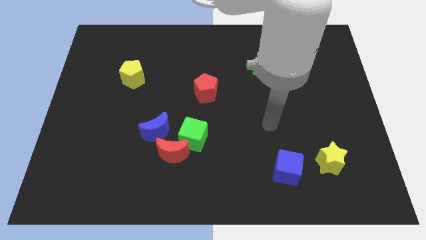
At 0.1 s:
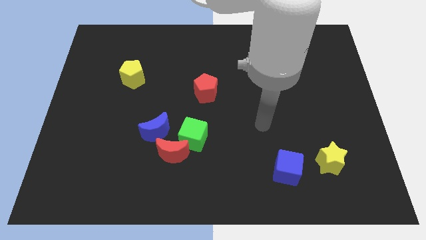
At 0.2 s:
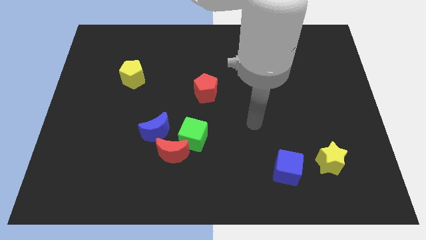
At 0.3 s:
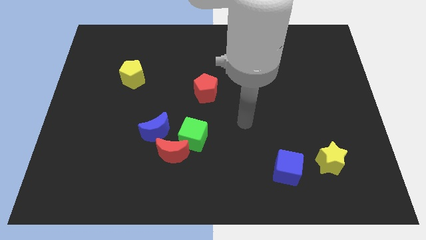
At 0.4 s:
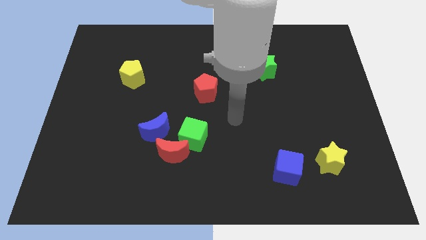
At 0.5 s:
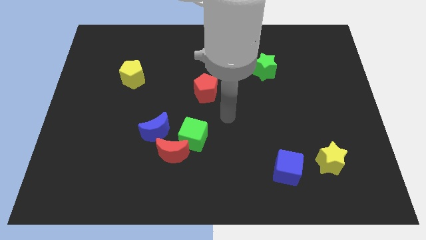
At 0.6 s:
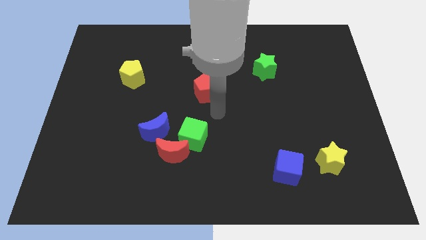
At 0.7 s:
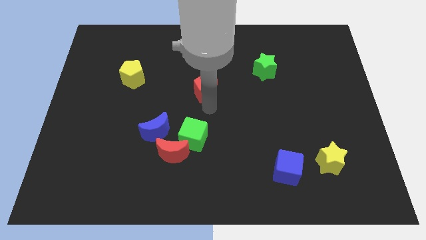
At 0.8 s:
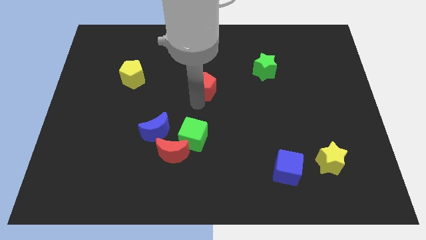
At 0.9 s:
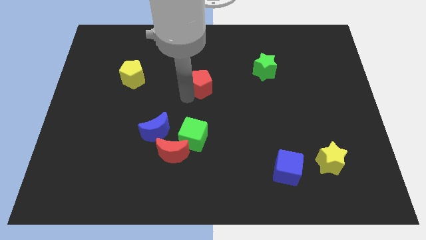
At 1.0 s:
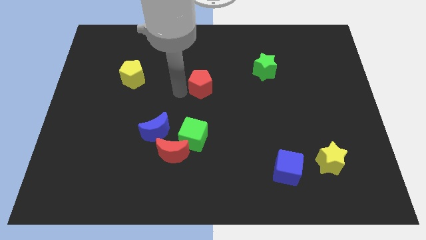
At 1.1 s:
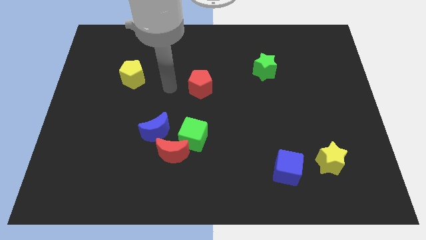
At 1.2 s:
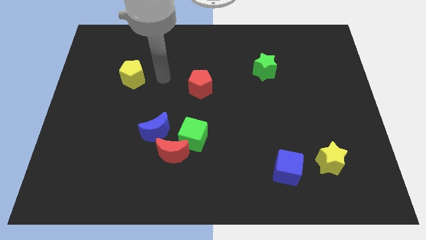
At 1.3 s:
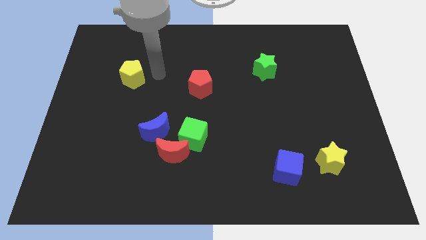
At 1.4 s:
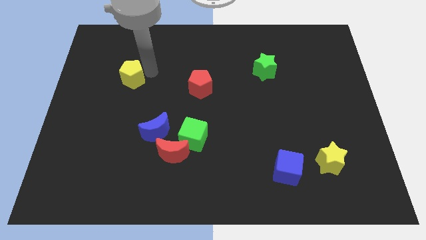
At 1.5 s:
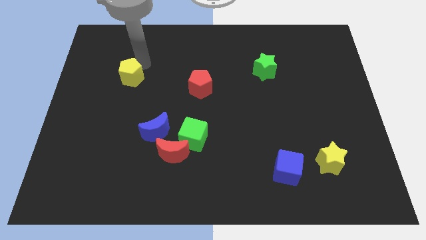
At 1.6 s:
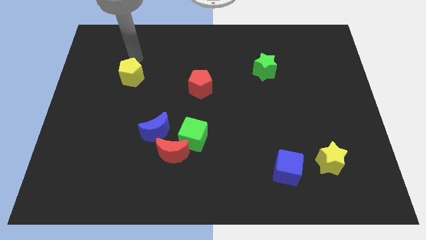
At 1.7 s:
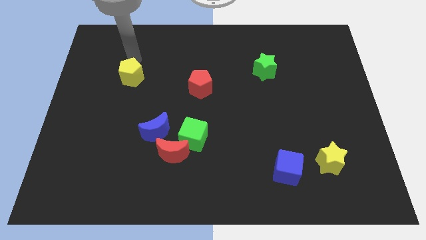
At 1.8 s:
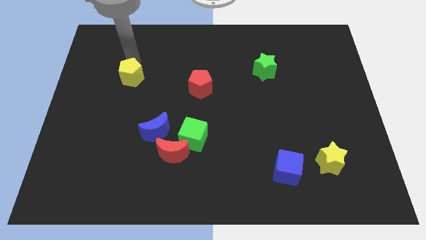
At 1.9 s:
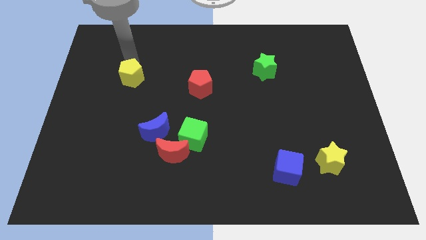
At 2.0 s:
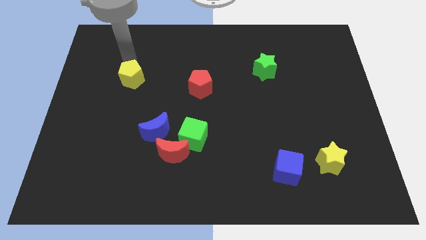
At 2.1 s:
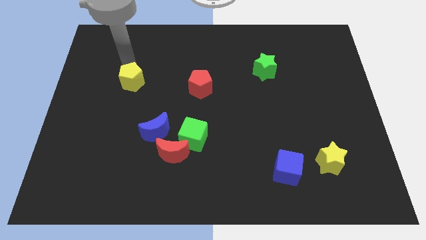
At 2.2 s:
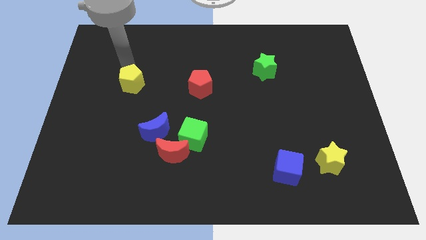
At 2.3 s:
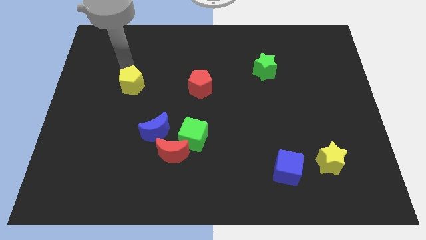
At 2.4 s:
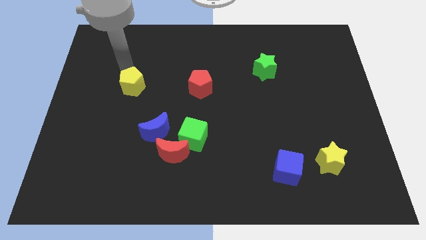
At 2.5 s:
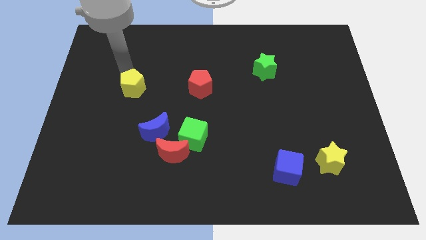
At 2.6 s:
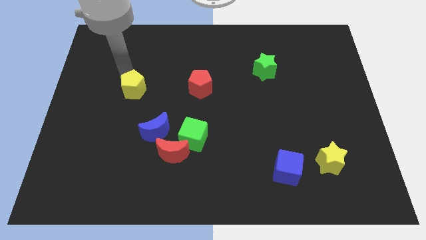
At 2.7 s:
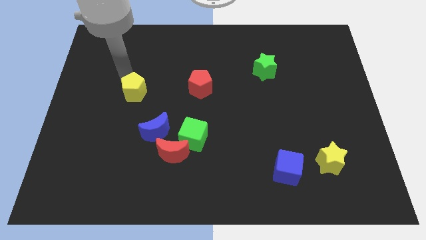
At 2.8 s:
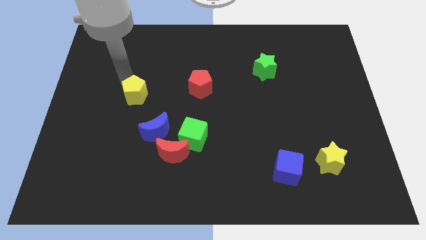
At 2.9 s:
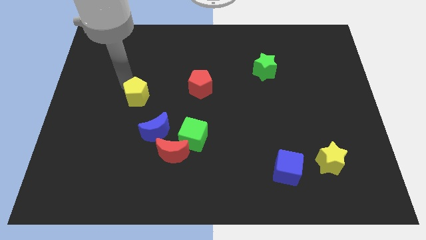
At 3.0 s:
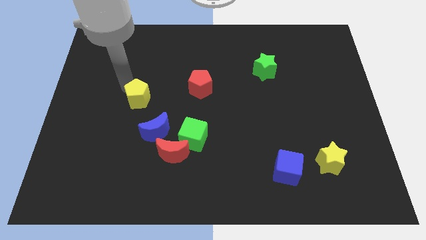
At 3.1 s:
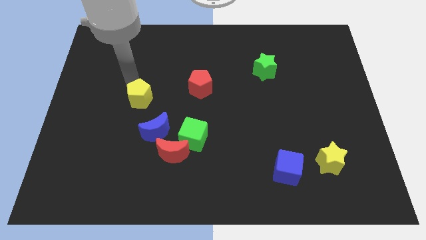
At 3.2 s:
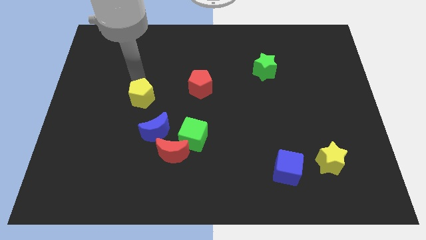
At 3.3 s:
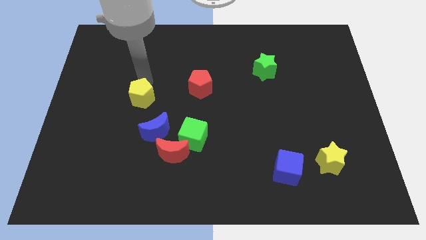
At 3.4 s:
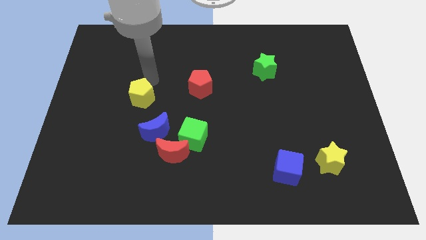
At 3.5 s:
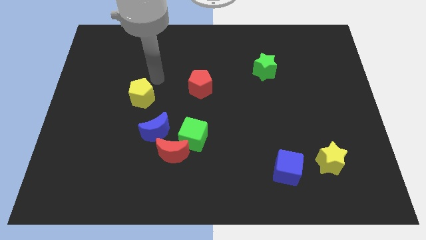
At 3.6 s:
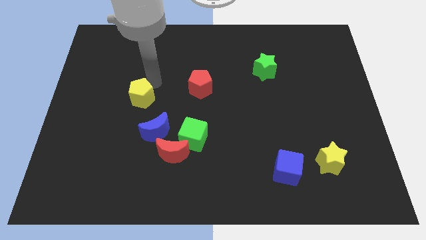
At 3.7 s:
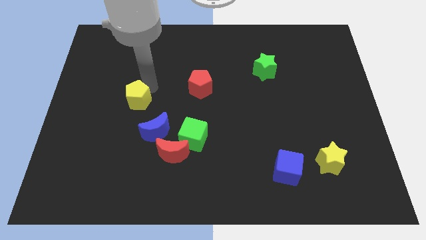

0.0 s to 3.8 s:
slightly slide the yellow pentagon downwards

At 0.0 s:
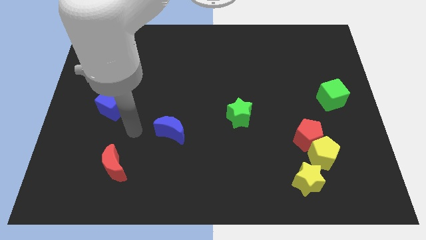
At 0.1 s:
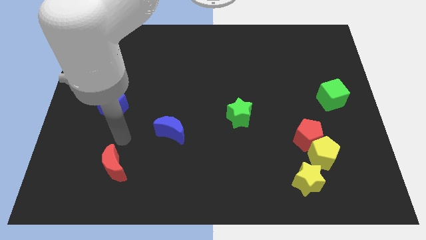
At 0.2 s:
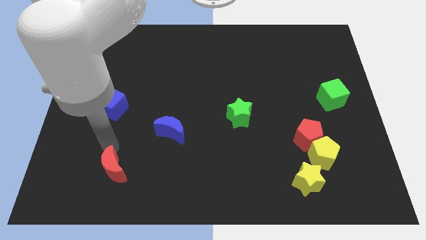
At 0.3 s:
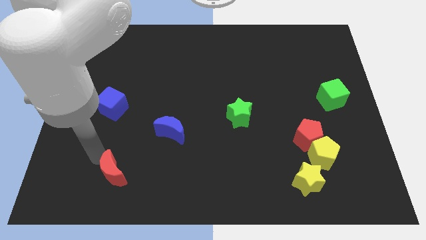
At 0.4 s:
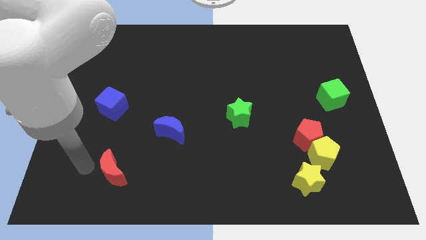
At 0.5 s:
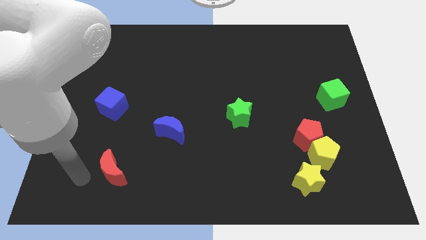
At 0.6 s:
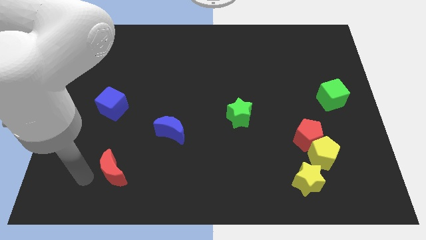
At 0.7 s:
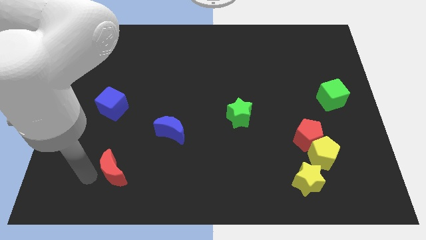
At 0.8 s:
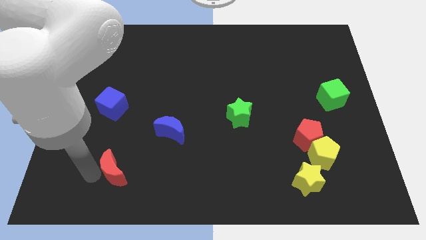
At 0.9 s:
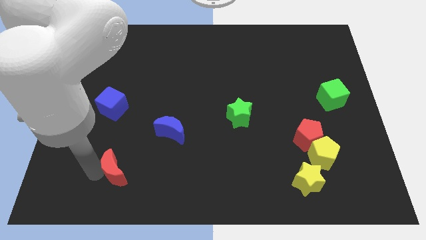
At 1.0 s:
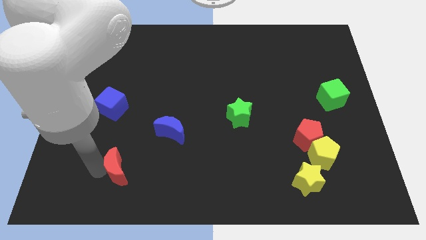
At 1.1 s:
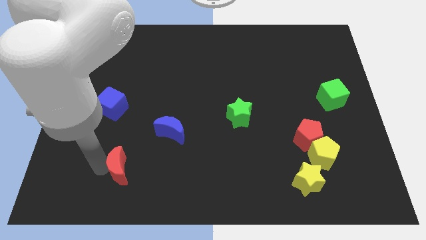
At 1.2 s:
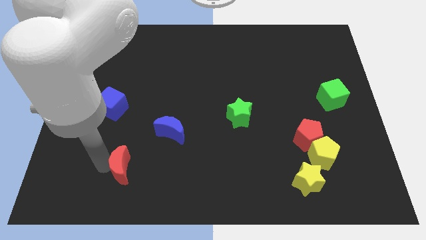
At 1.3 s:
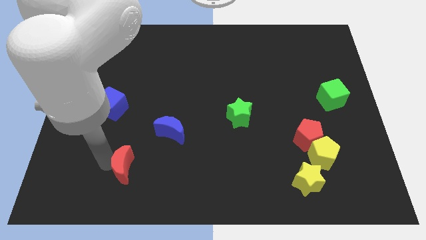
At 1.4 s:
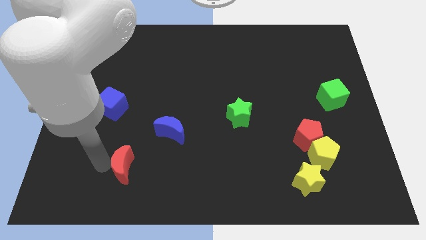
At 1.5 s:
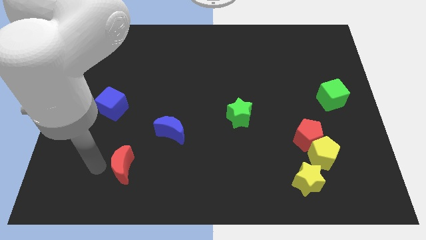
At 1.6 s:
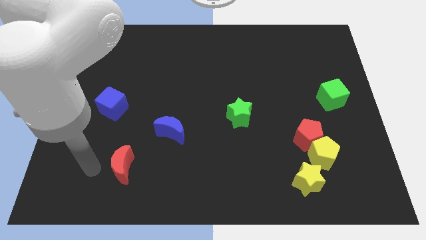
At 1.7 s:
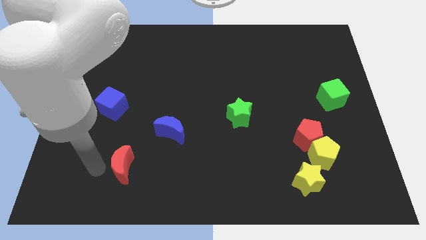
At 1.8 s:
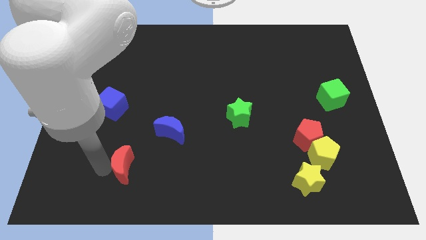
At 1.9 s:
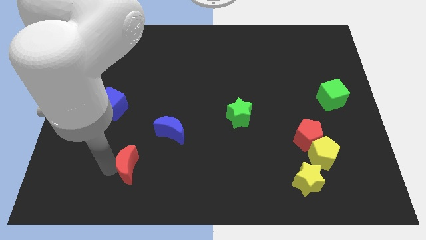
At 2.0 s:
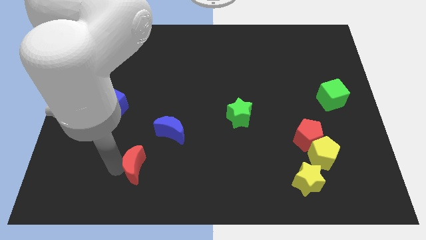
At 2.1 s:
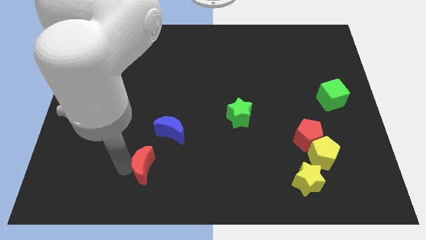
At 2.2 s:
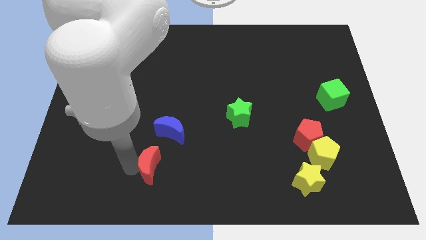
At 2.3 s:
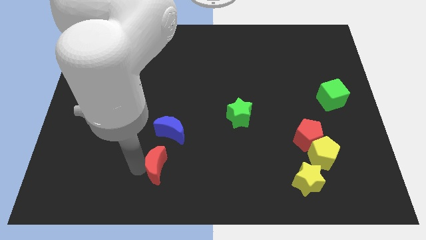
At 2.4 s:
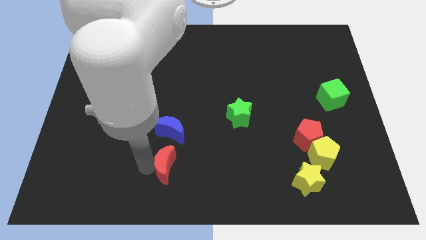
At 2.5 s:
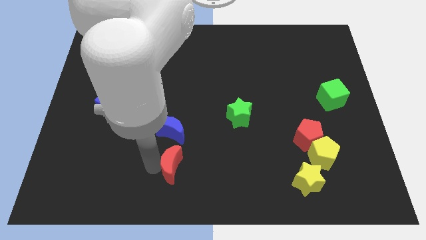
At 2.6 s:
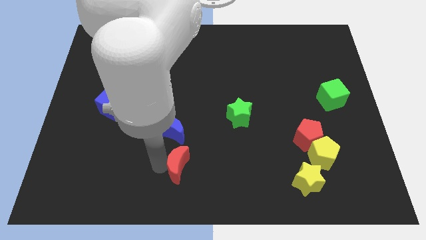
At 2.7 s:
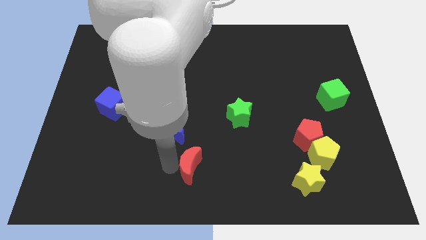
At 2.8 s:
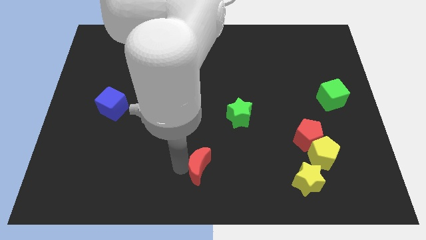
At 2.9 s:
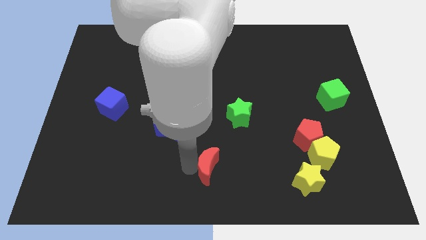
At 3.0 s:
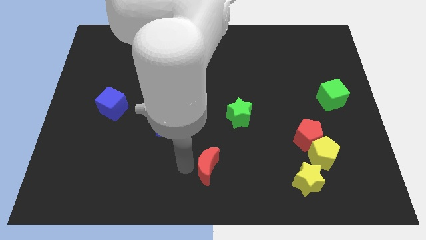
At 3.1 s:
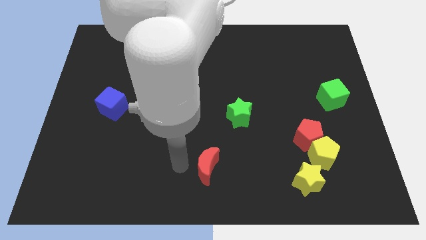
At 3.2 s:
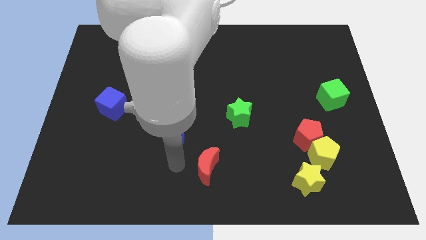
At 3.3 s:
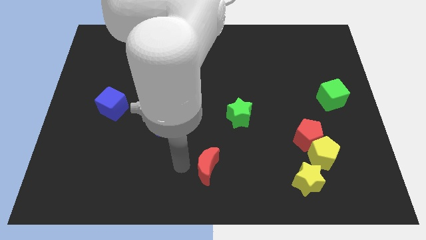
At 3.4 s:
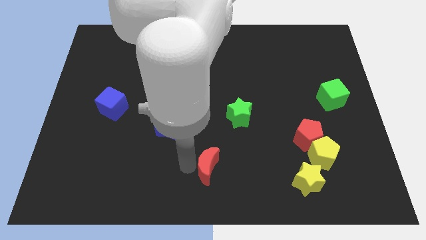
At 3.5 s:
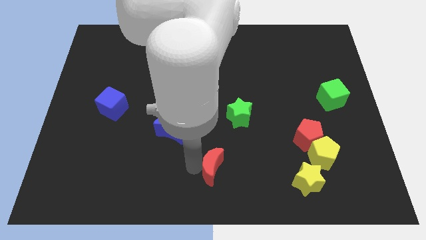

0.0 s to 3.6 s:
slide the red moon right

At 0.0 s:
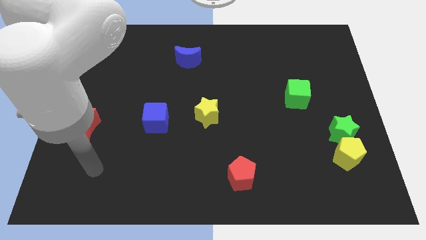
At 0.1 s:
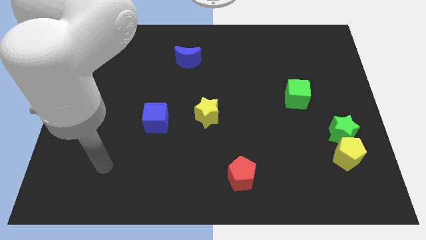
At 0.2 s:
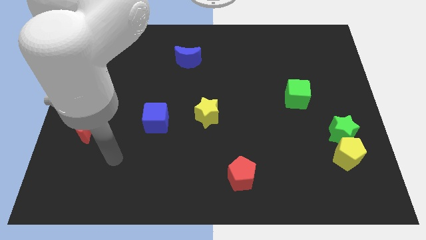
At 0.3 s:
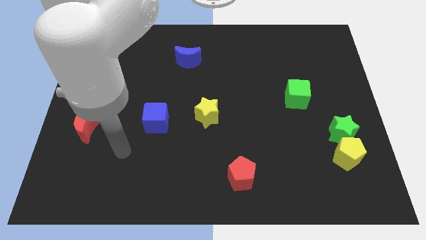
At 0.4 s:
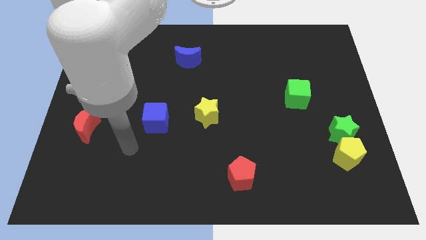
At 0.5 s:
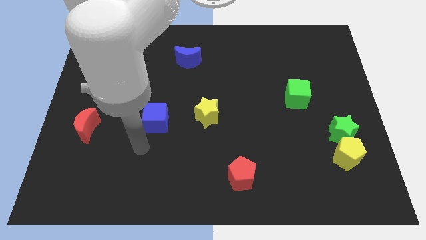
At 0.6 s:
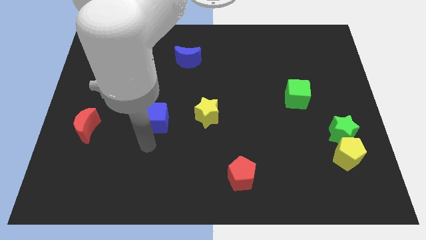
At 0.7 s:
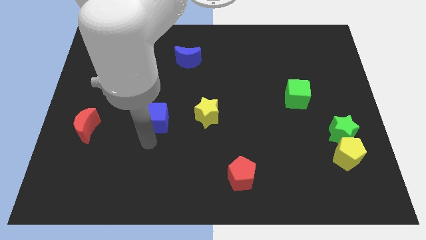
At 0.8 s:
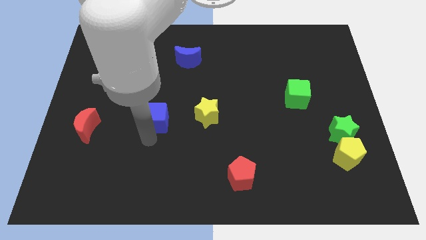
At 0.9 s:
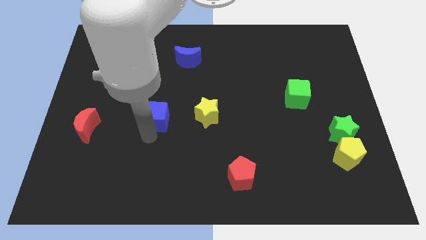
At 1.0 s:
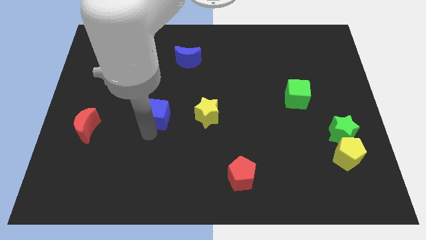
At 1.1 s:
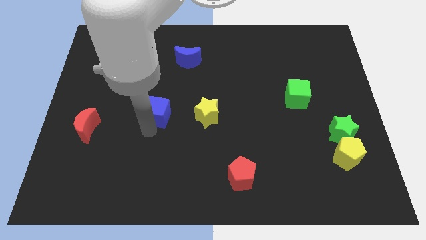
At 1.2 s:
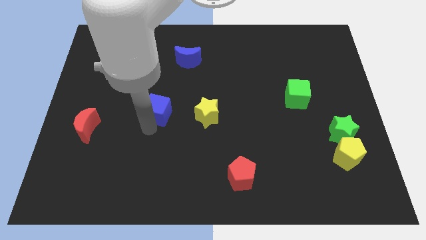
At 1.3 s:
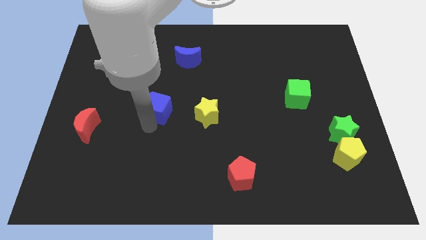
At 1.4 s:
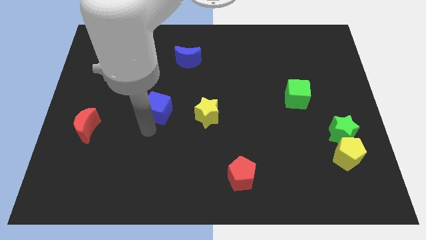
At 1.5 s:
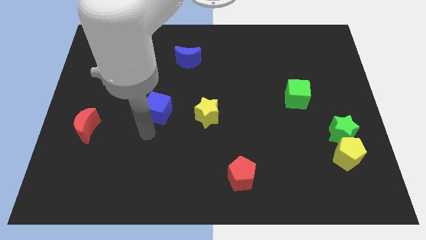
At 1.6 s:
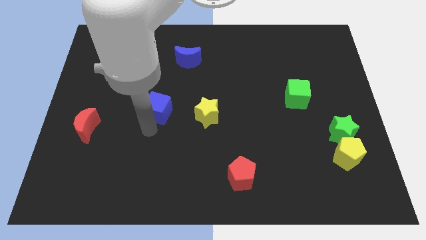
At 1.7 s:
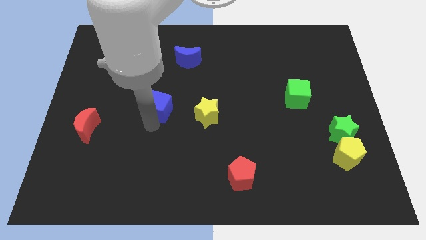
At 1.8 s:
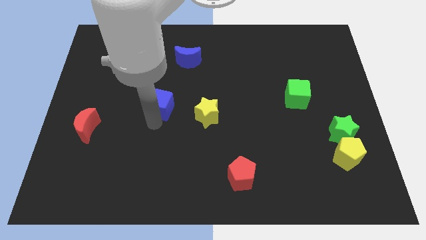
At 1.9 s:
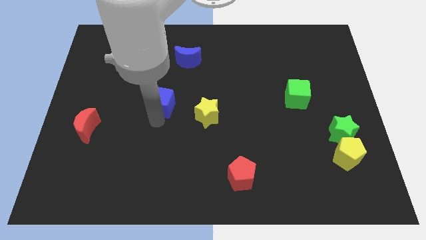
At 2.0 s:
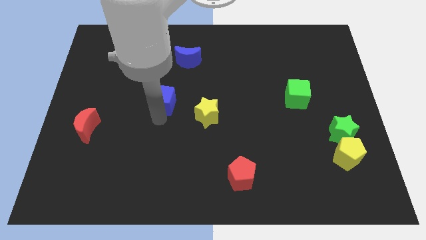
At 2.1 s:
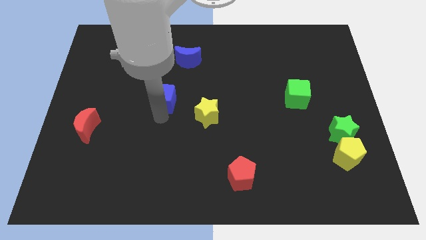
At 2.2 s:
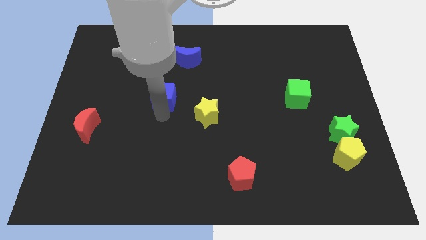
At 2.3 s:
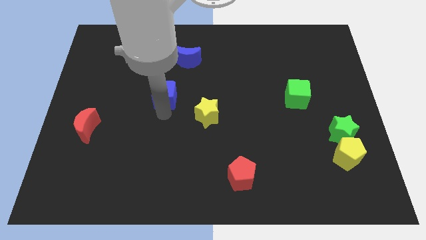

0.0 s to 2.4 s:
slide the blue cube up slightly
